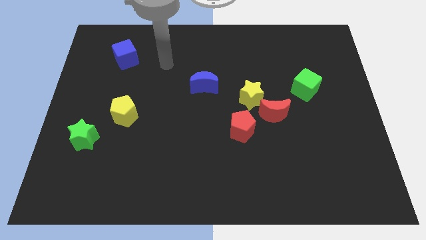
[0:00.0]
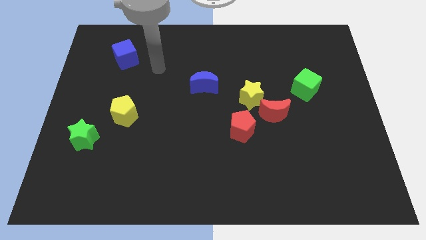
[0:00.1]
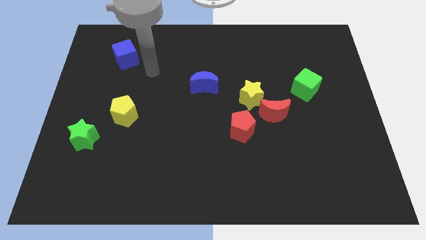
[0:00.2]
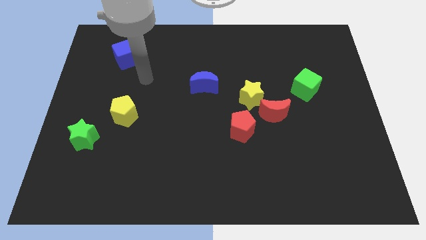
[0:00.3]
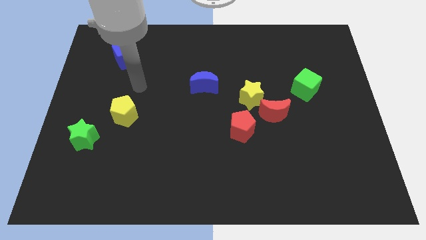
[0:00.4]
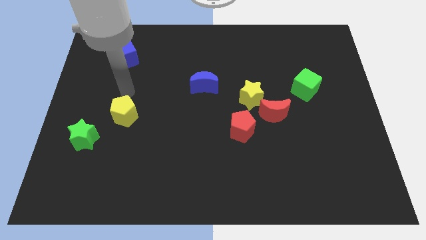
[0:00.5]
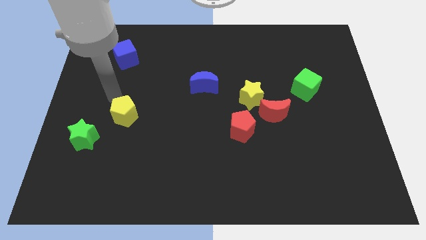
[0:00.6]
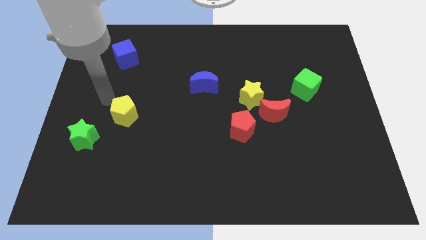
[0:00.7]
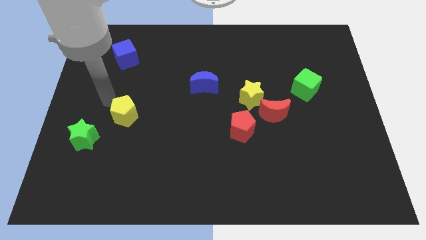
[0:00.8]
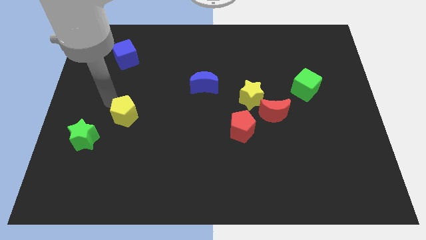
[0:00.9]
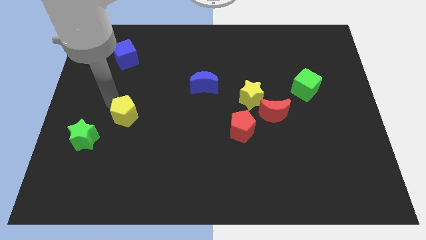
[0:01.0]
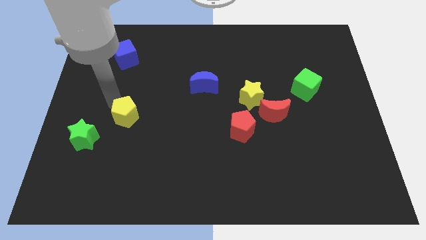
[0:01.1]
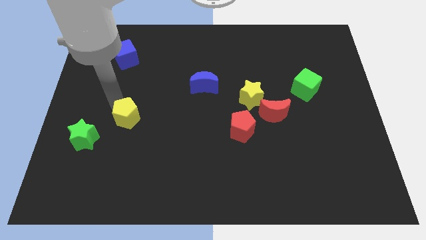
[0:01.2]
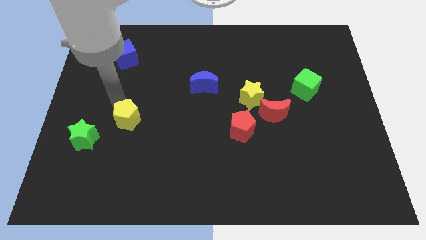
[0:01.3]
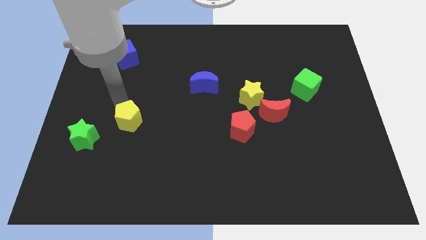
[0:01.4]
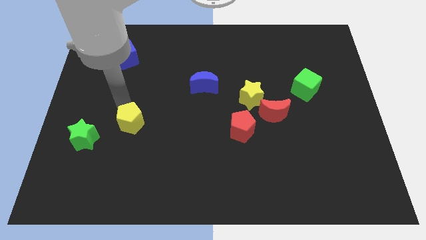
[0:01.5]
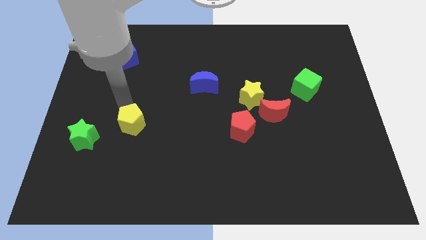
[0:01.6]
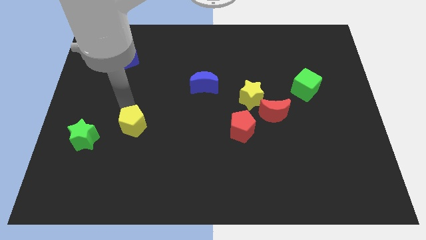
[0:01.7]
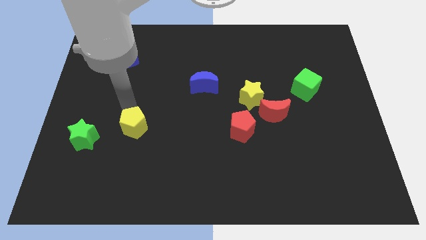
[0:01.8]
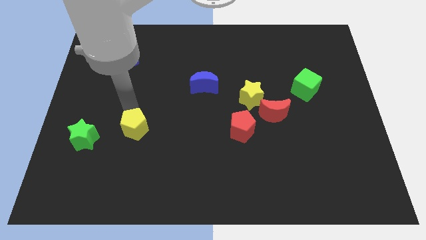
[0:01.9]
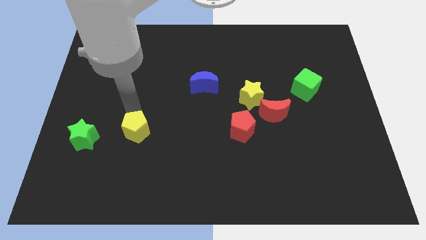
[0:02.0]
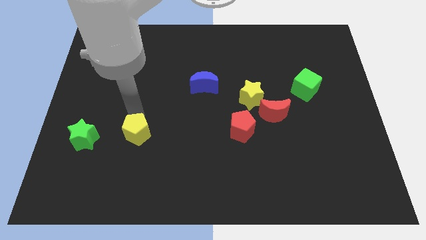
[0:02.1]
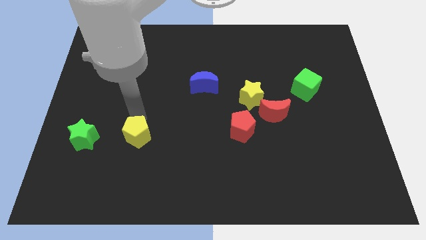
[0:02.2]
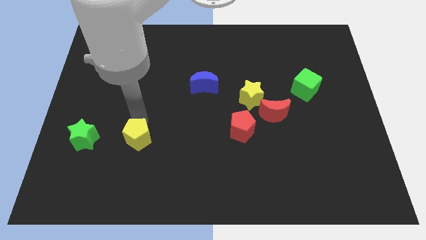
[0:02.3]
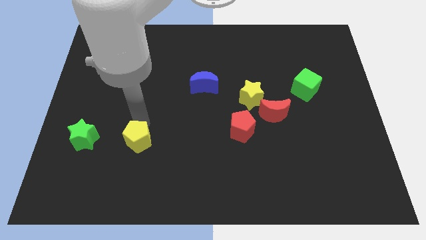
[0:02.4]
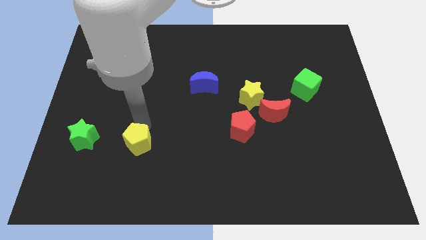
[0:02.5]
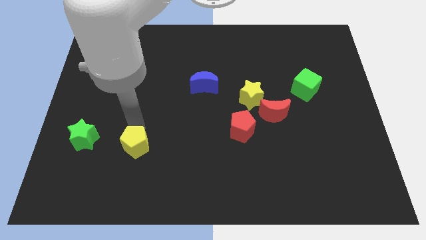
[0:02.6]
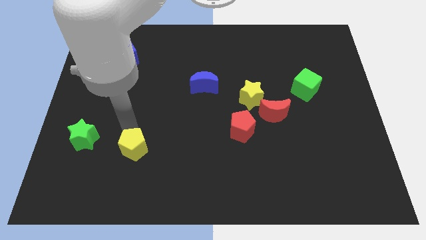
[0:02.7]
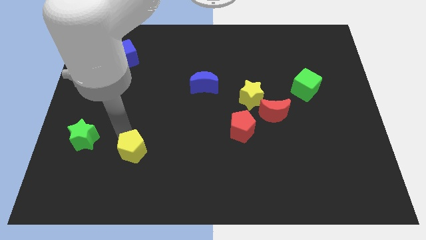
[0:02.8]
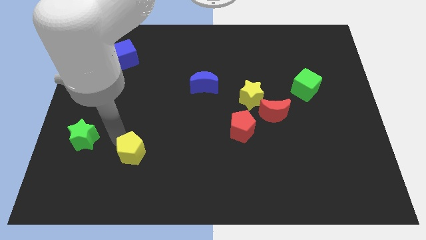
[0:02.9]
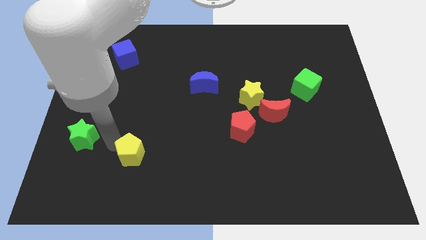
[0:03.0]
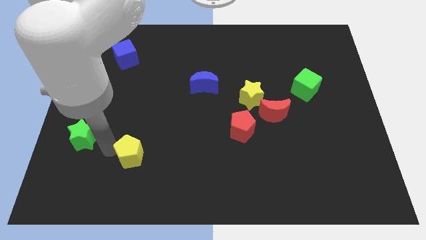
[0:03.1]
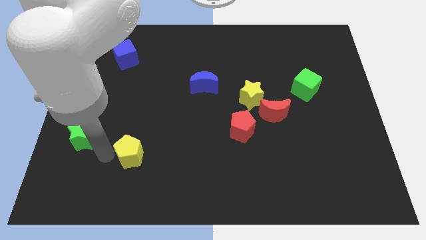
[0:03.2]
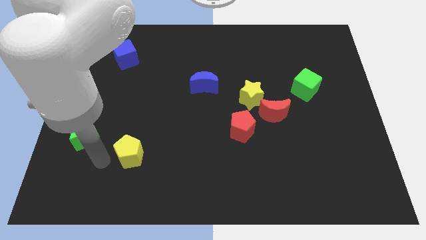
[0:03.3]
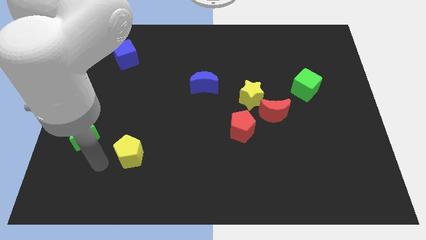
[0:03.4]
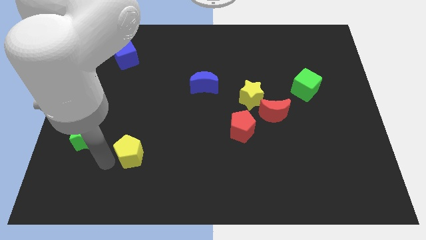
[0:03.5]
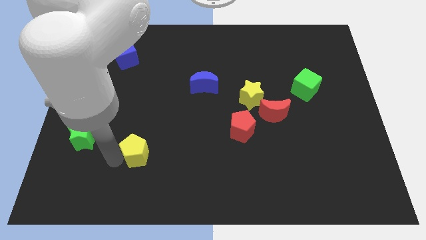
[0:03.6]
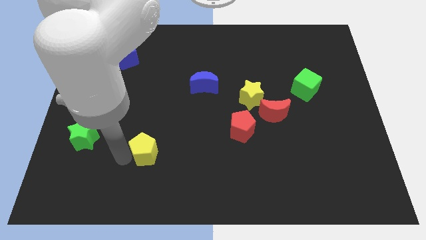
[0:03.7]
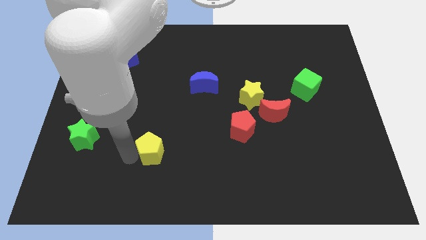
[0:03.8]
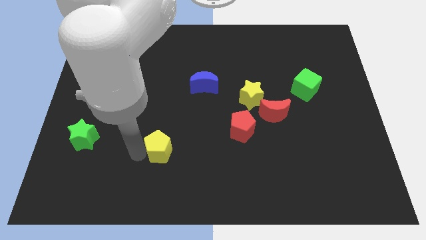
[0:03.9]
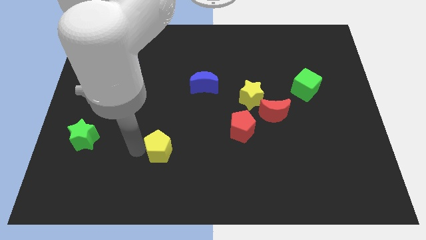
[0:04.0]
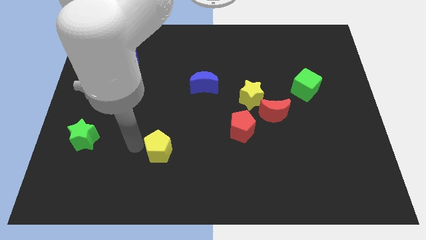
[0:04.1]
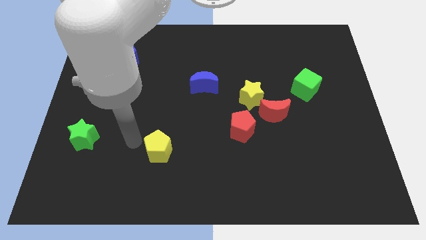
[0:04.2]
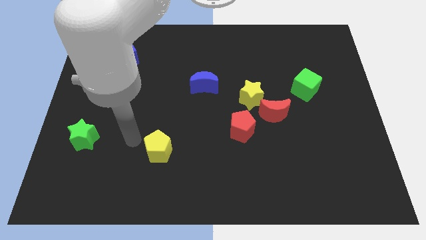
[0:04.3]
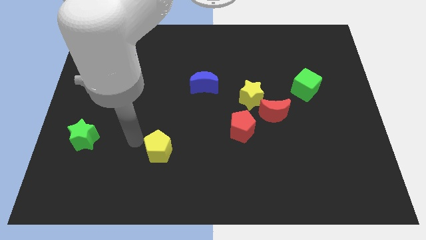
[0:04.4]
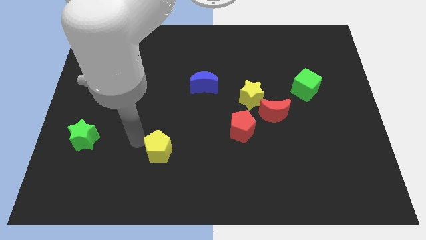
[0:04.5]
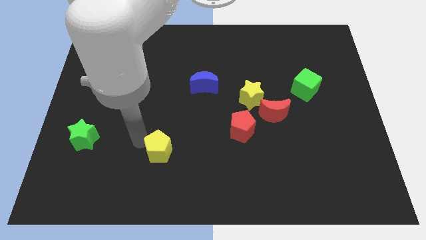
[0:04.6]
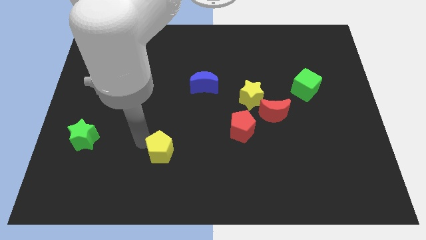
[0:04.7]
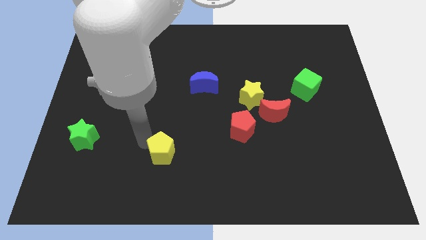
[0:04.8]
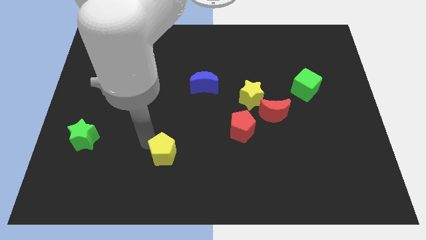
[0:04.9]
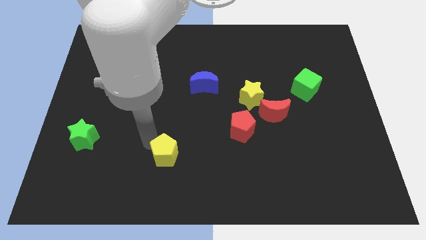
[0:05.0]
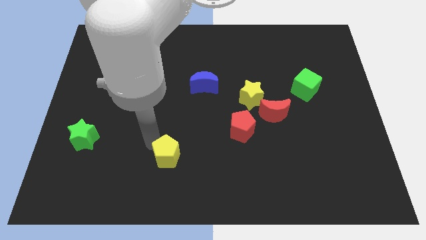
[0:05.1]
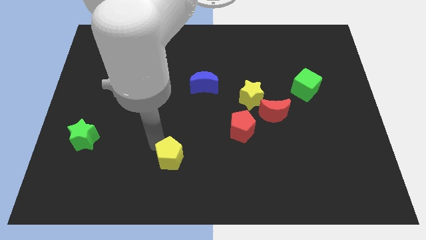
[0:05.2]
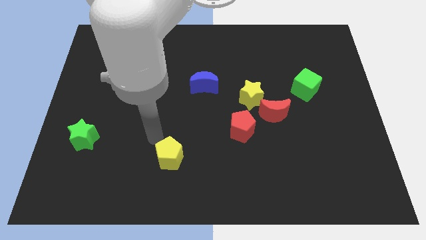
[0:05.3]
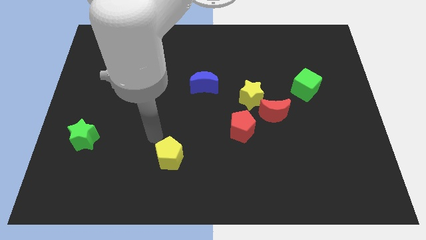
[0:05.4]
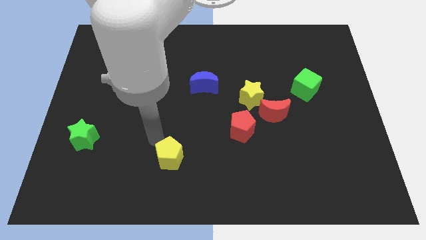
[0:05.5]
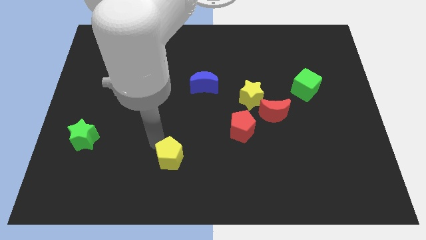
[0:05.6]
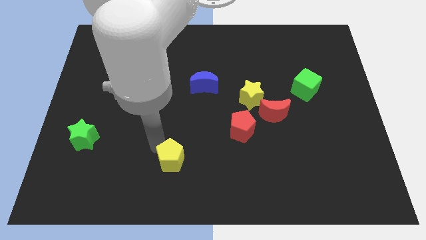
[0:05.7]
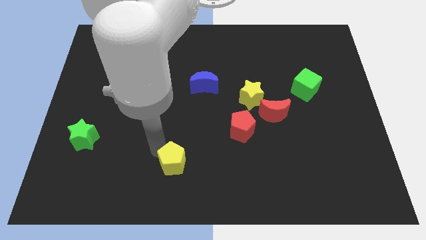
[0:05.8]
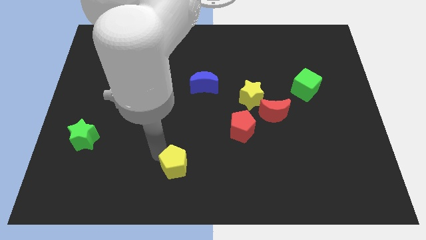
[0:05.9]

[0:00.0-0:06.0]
push the yellow pentagon to the bottom side
